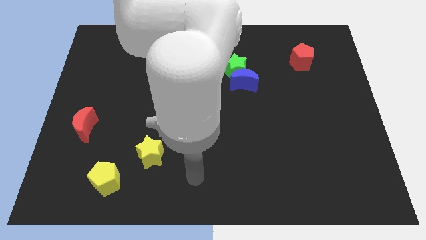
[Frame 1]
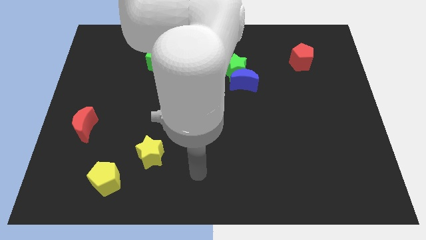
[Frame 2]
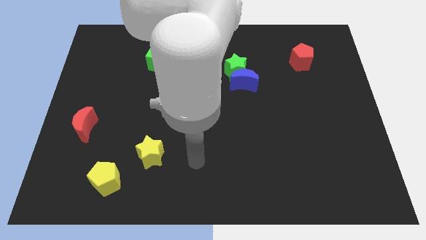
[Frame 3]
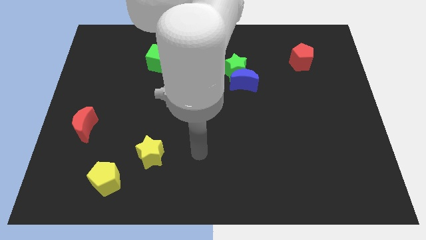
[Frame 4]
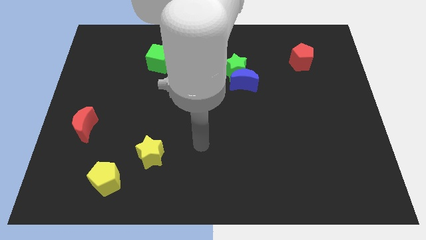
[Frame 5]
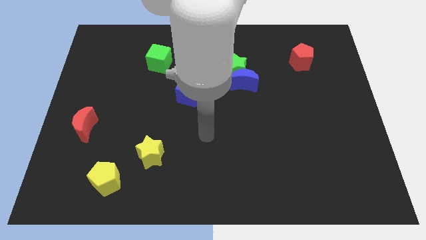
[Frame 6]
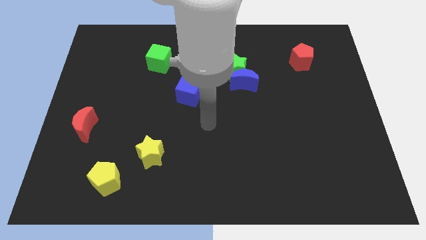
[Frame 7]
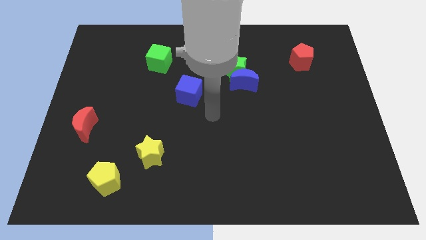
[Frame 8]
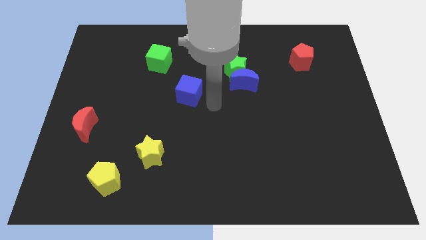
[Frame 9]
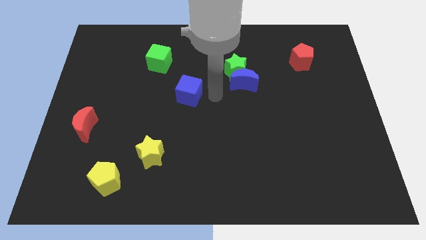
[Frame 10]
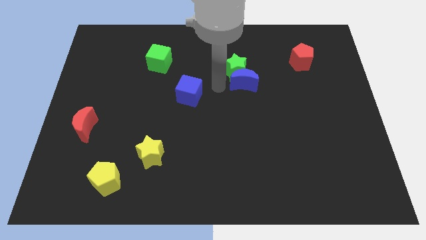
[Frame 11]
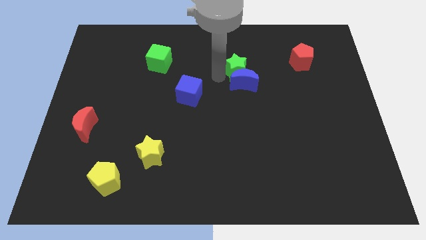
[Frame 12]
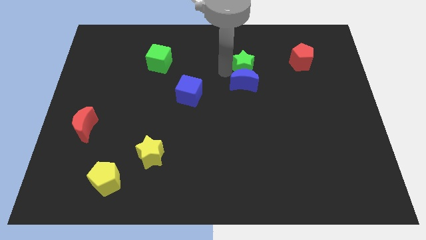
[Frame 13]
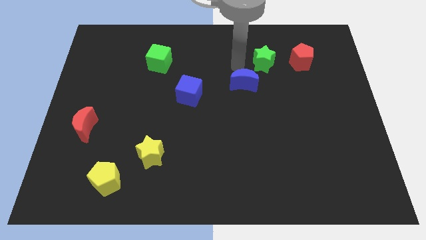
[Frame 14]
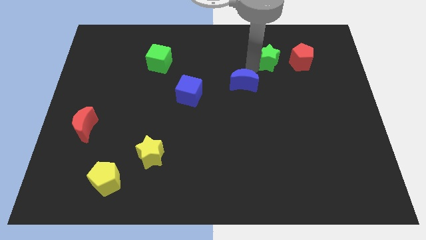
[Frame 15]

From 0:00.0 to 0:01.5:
pull the blue moon apart from the green star

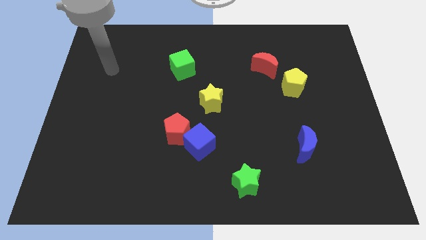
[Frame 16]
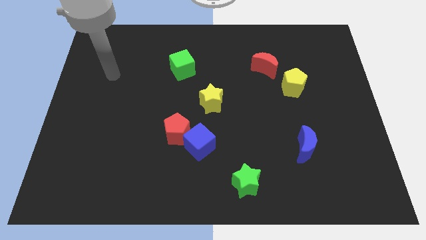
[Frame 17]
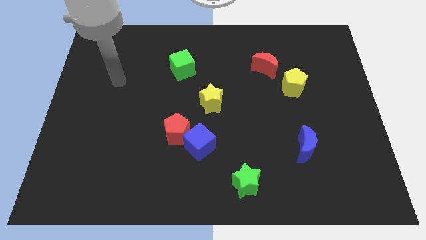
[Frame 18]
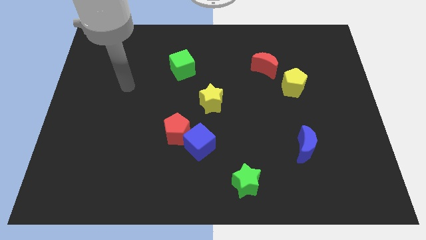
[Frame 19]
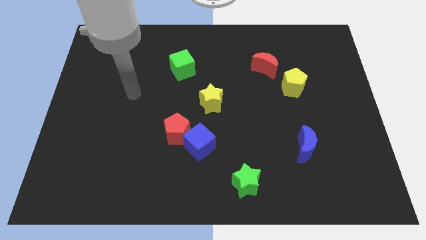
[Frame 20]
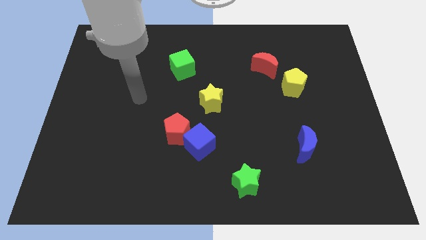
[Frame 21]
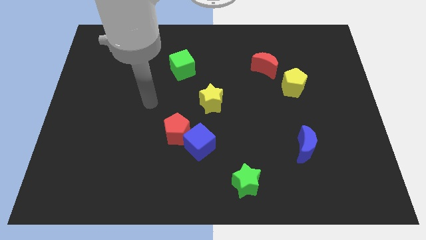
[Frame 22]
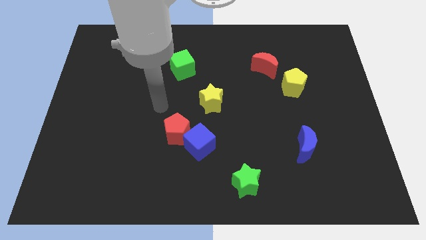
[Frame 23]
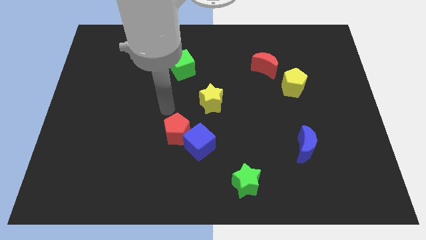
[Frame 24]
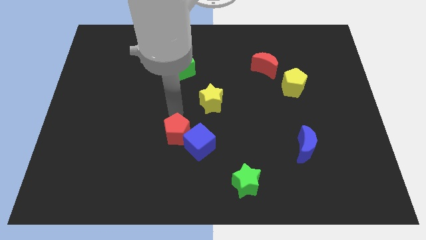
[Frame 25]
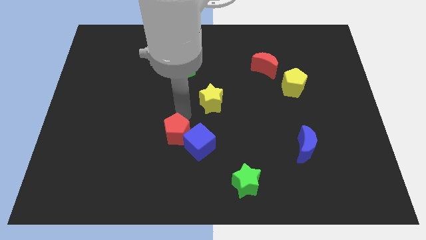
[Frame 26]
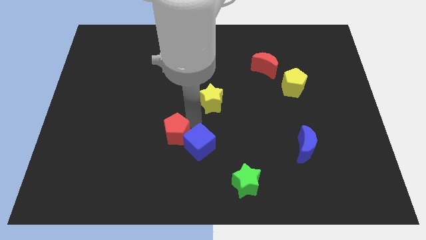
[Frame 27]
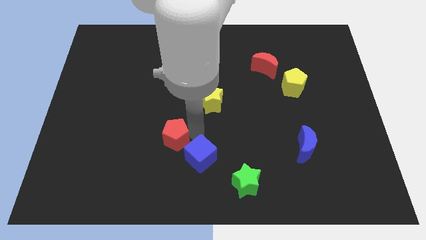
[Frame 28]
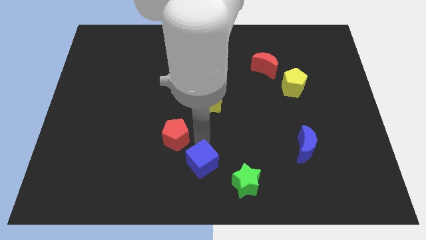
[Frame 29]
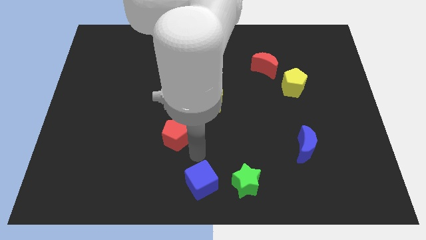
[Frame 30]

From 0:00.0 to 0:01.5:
move the red pentagon away from the blue cube

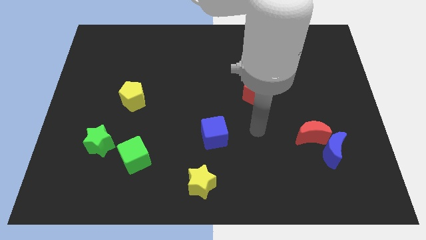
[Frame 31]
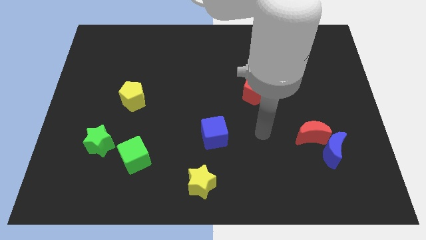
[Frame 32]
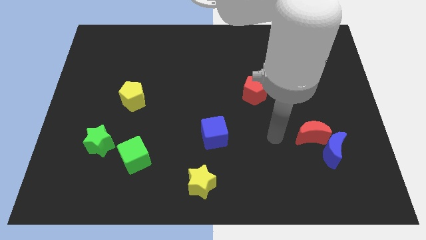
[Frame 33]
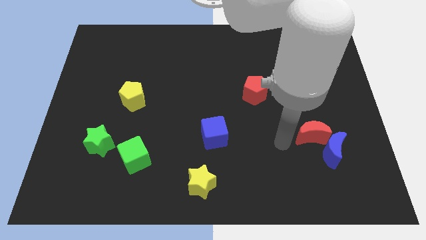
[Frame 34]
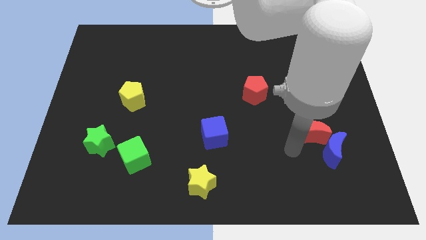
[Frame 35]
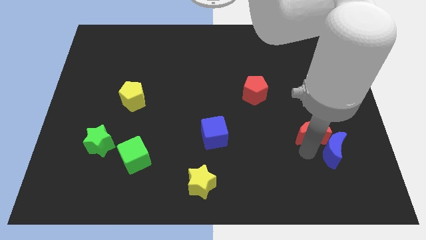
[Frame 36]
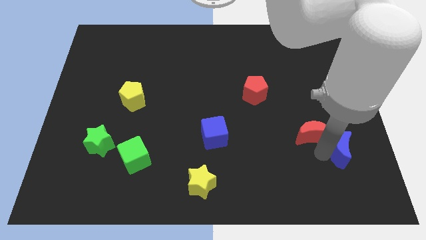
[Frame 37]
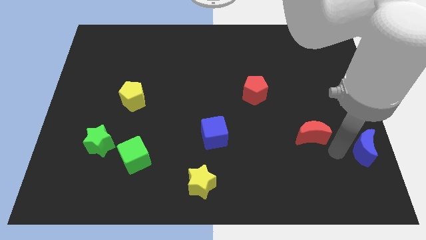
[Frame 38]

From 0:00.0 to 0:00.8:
move the red moon away from the blue moon

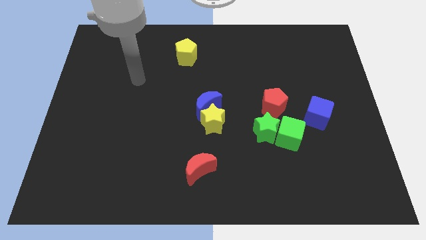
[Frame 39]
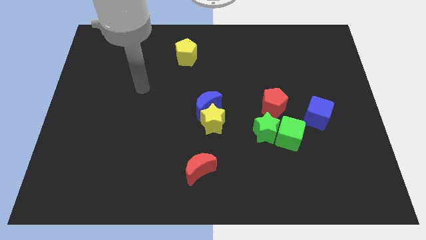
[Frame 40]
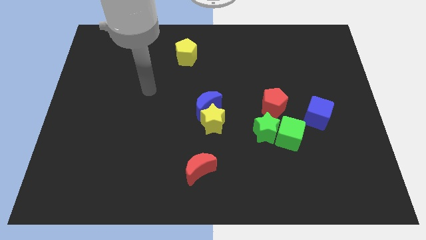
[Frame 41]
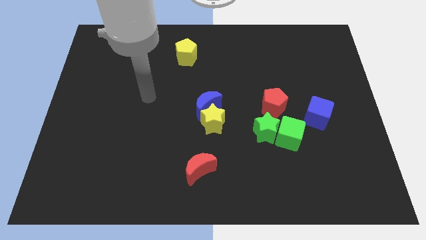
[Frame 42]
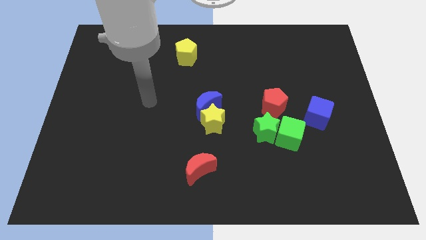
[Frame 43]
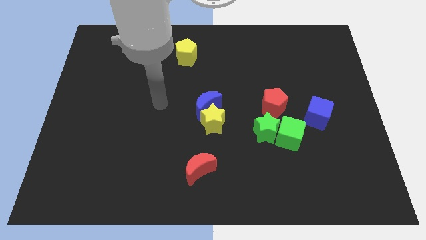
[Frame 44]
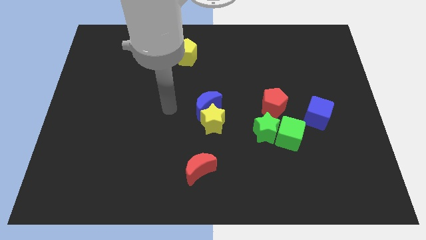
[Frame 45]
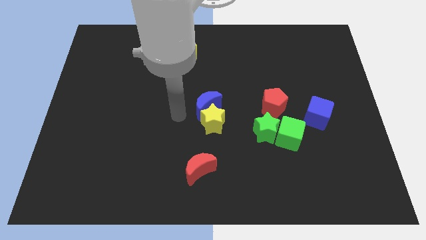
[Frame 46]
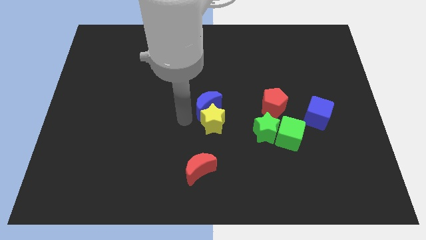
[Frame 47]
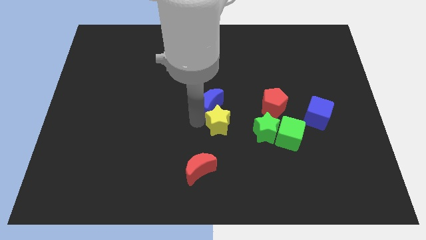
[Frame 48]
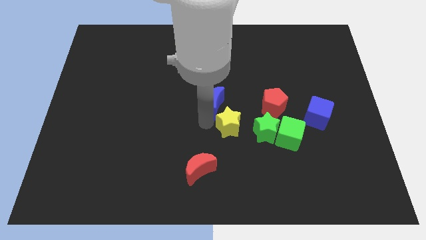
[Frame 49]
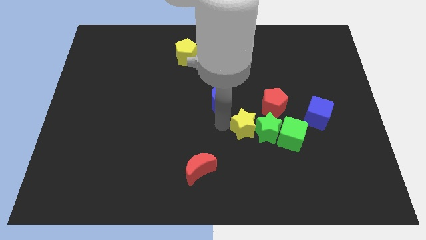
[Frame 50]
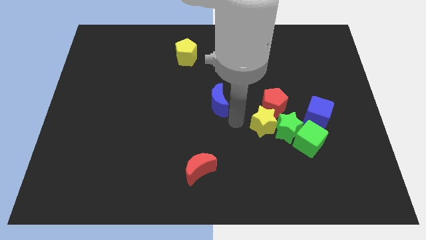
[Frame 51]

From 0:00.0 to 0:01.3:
pull the blue moon apart from the yellow star

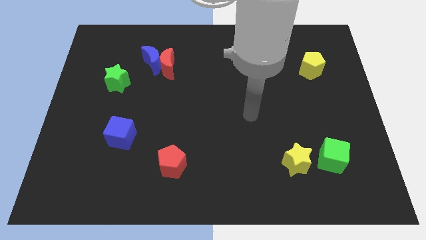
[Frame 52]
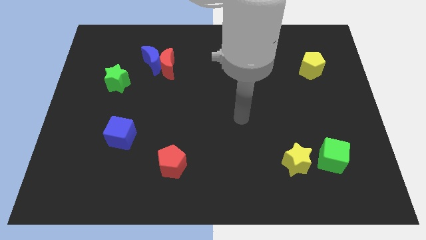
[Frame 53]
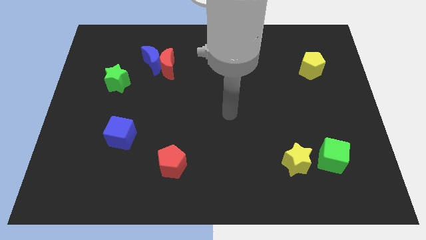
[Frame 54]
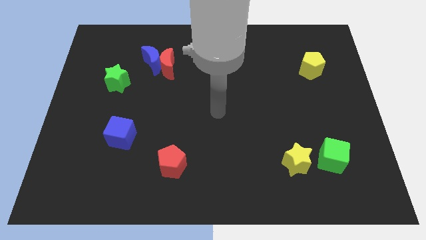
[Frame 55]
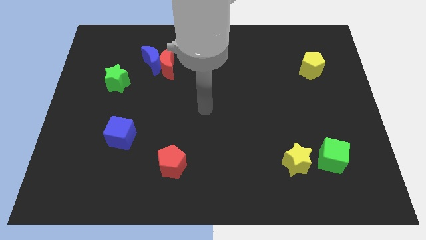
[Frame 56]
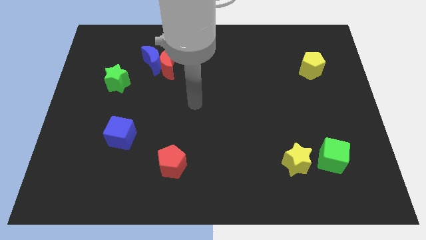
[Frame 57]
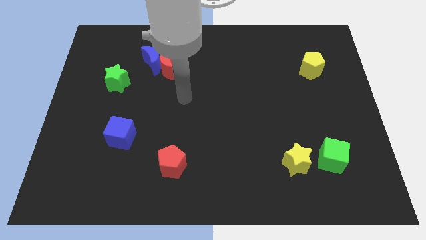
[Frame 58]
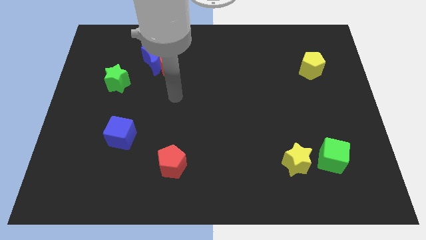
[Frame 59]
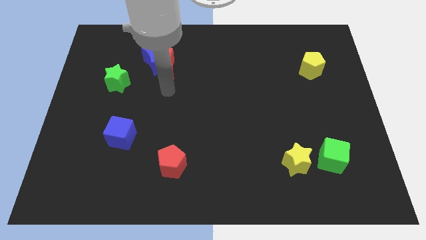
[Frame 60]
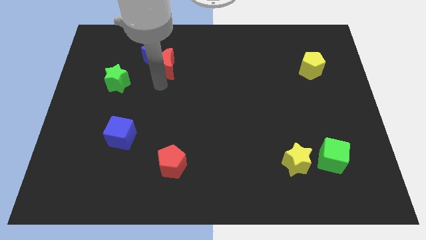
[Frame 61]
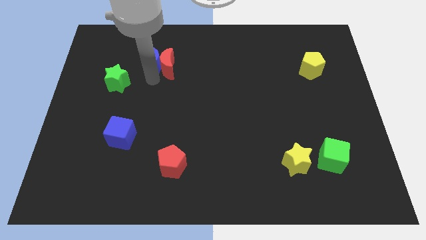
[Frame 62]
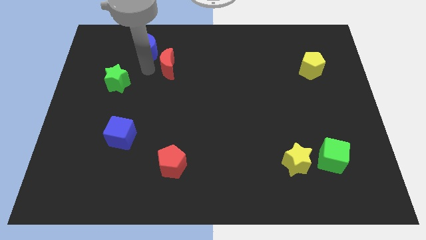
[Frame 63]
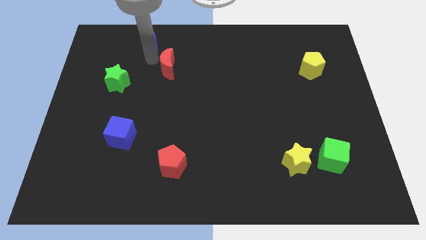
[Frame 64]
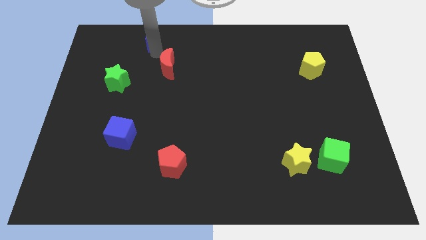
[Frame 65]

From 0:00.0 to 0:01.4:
separate the red moon from the blue moon

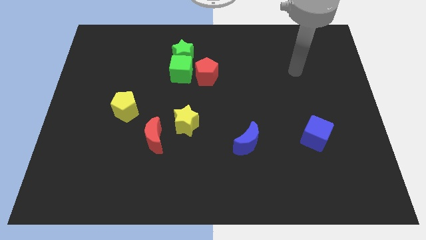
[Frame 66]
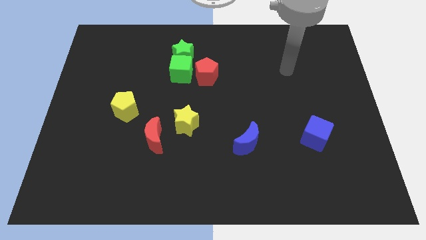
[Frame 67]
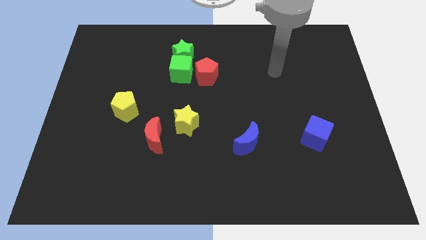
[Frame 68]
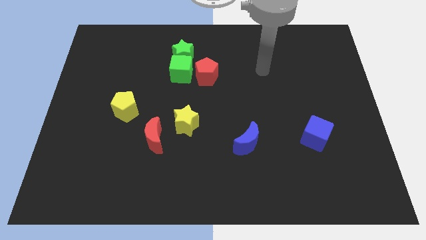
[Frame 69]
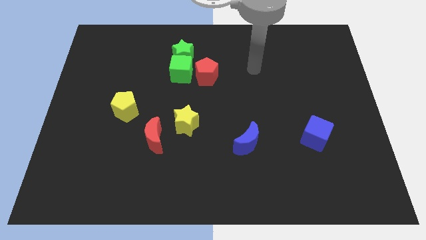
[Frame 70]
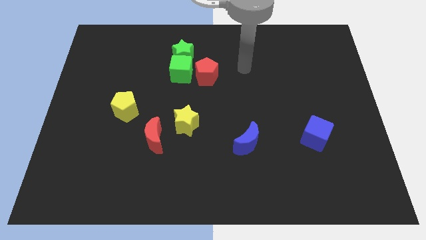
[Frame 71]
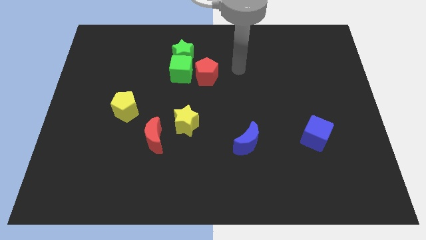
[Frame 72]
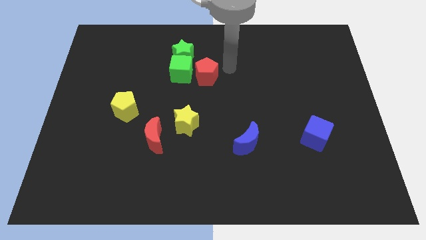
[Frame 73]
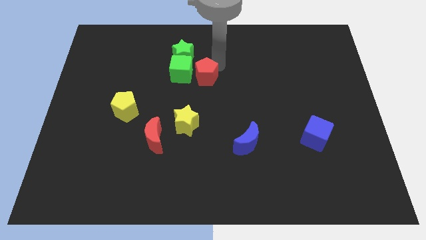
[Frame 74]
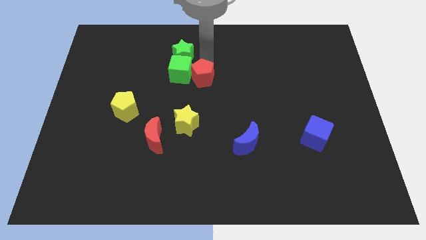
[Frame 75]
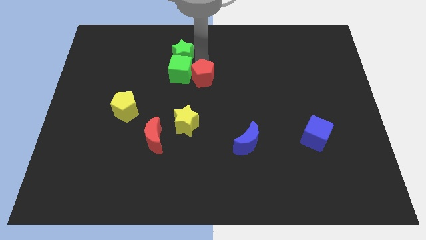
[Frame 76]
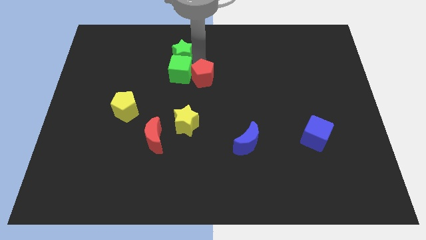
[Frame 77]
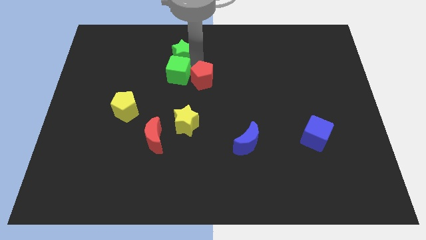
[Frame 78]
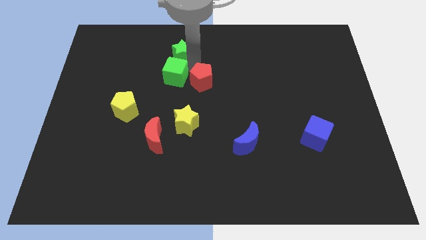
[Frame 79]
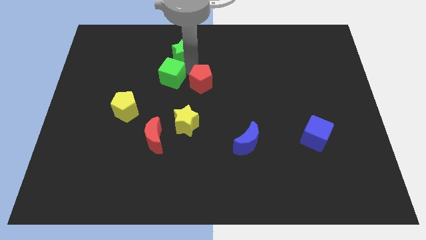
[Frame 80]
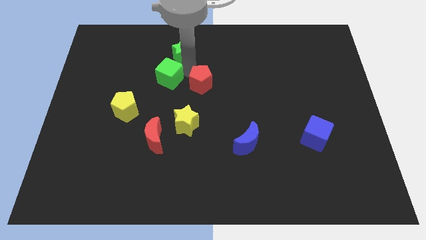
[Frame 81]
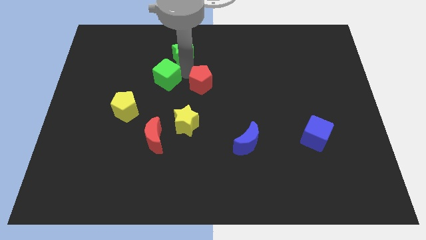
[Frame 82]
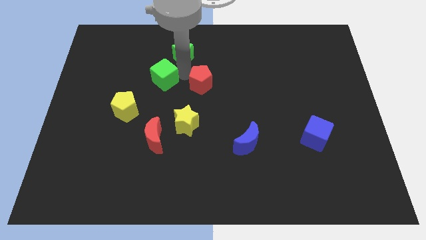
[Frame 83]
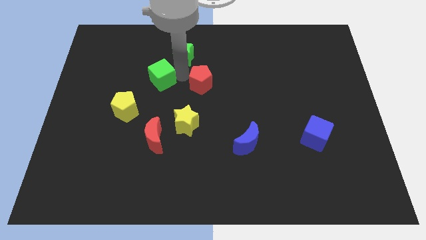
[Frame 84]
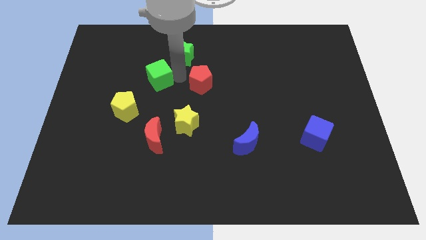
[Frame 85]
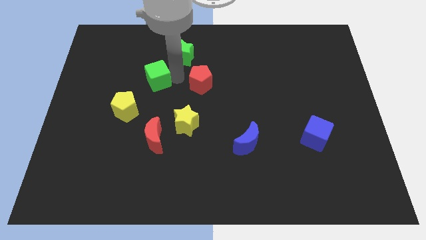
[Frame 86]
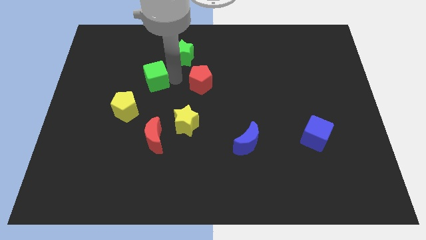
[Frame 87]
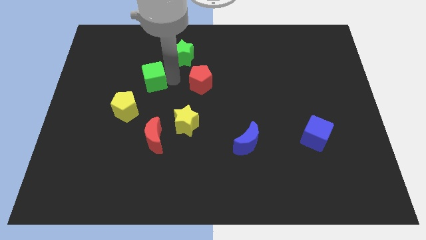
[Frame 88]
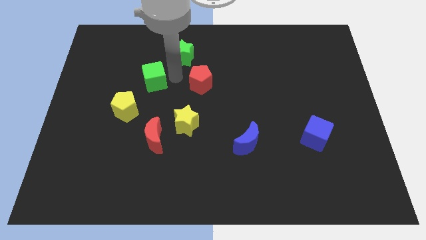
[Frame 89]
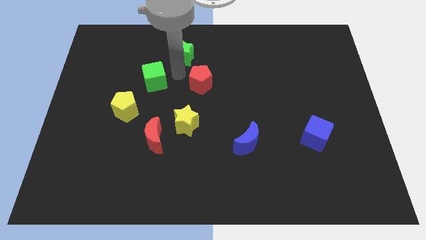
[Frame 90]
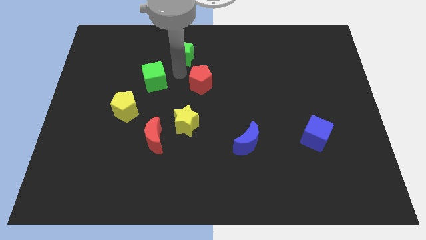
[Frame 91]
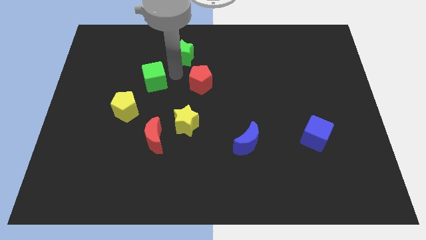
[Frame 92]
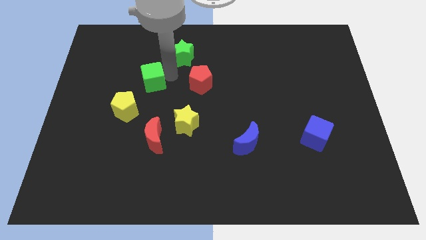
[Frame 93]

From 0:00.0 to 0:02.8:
separate the green cube from the green star and red pentagon
